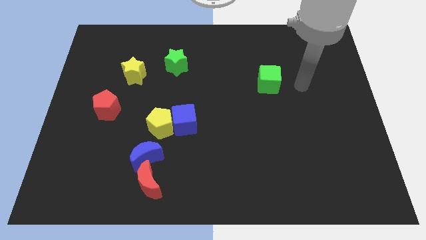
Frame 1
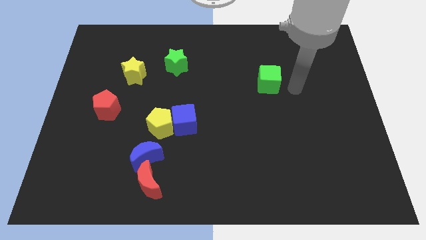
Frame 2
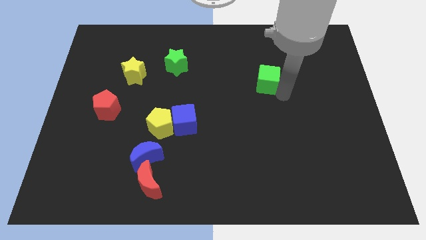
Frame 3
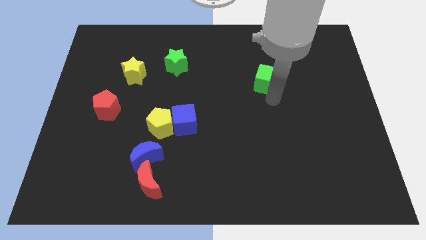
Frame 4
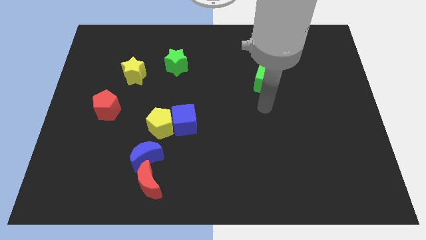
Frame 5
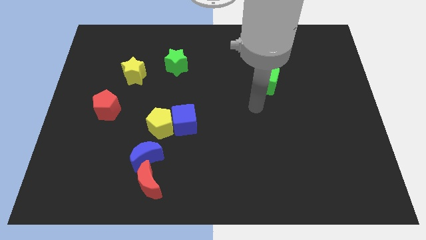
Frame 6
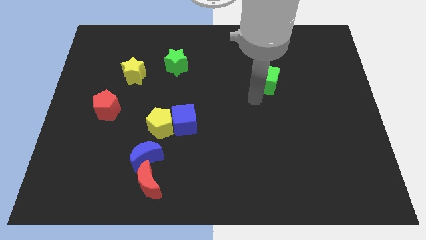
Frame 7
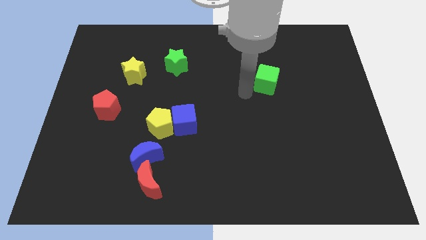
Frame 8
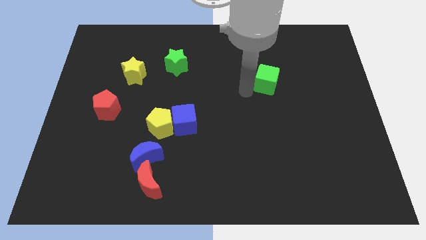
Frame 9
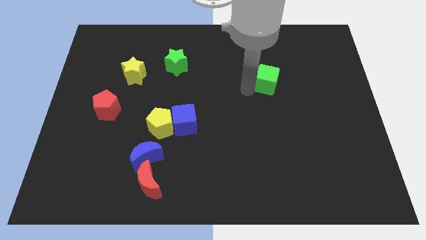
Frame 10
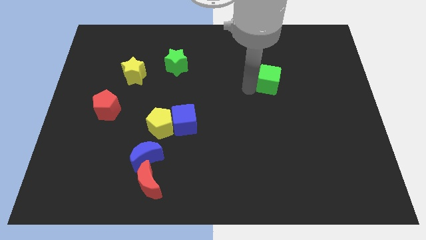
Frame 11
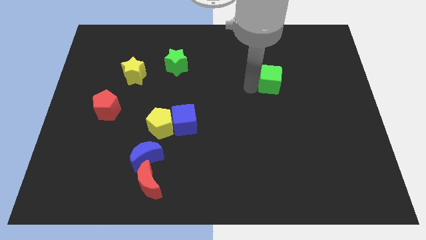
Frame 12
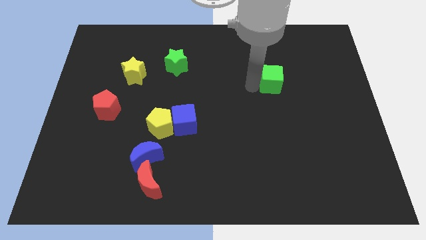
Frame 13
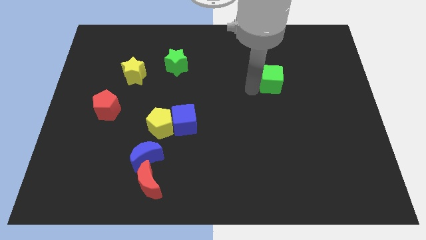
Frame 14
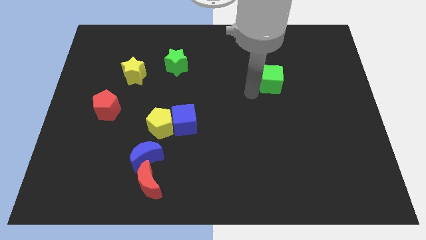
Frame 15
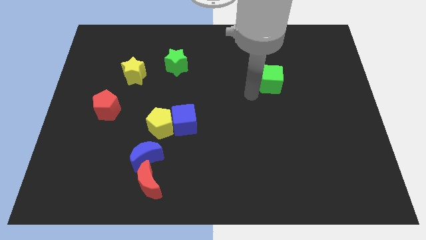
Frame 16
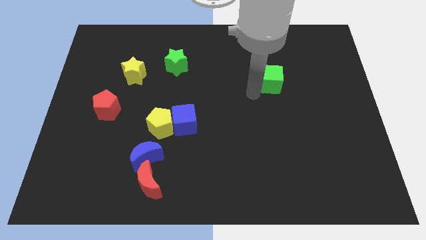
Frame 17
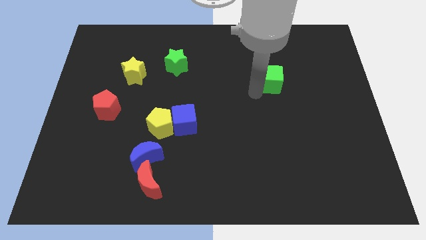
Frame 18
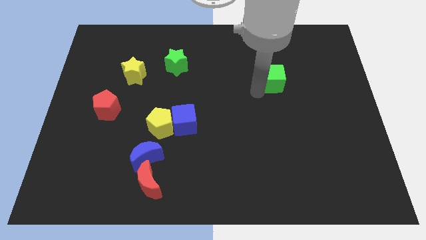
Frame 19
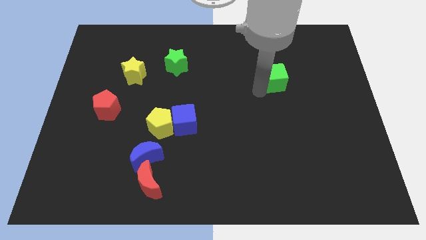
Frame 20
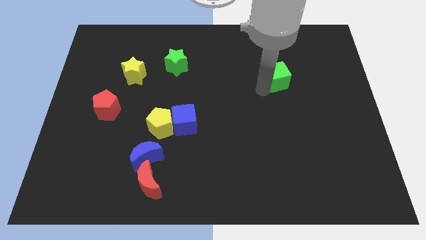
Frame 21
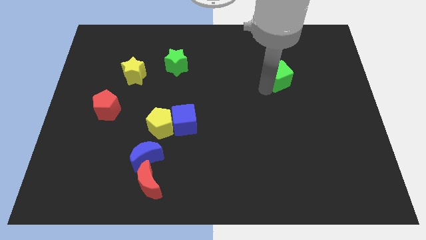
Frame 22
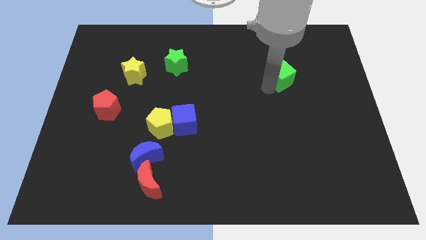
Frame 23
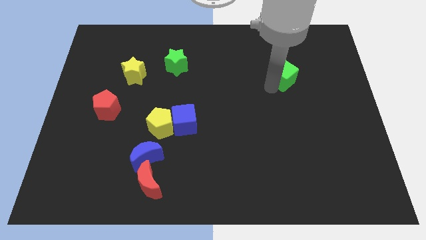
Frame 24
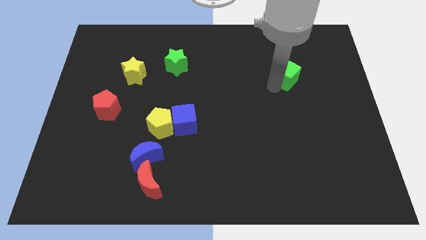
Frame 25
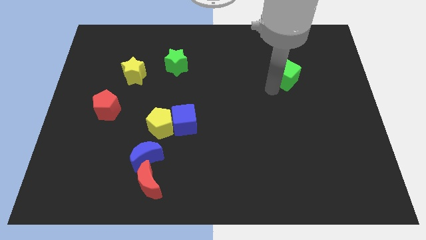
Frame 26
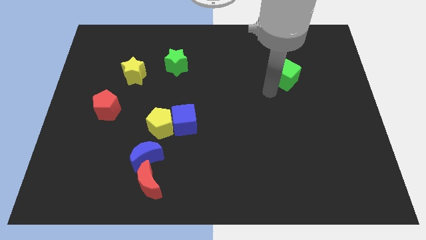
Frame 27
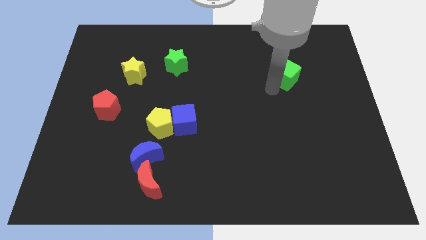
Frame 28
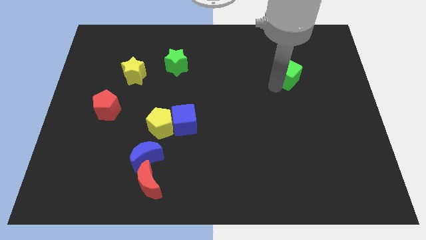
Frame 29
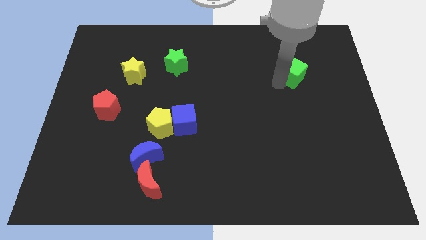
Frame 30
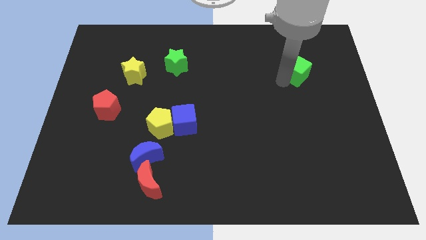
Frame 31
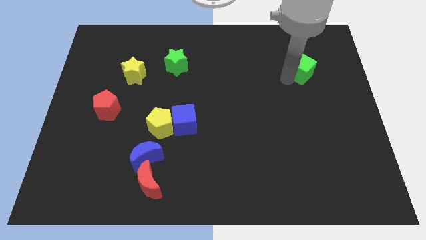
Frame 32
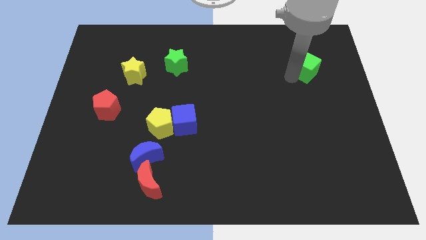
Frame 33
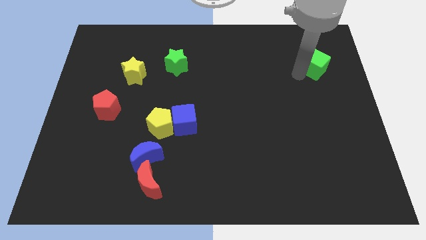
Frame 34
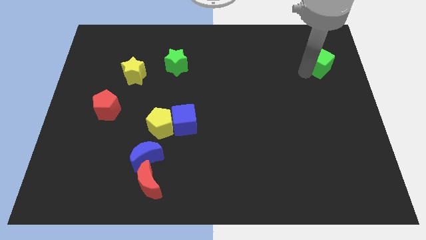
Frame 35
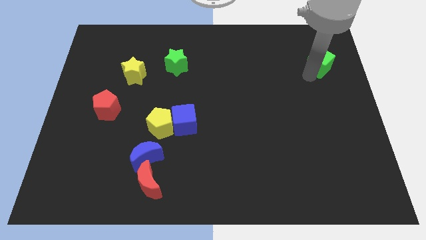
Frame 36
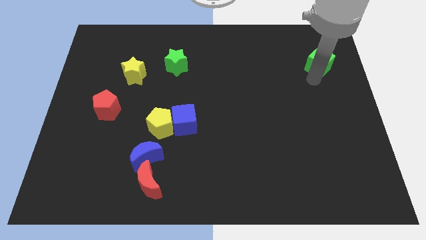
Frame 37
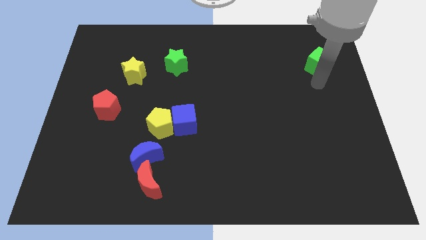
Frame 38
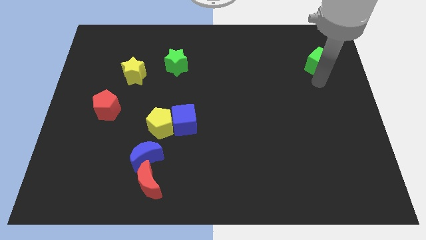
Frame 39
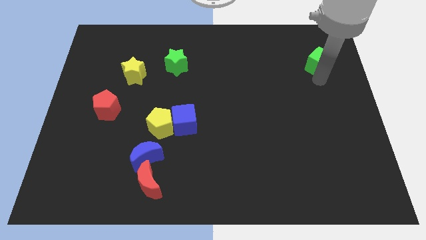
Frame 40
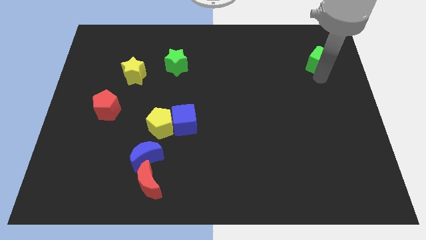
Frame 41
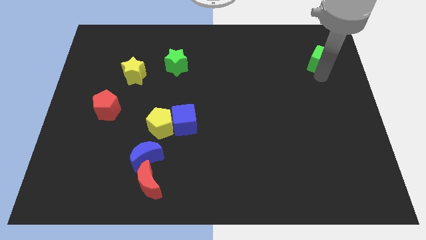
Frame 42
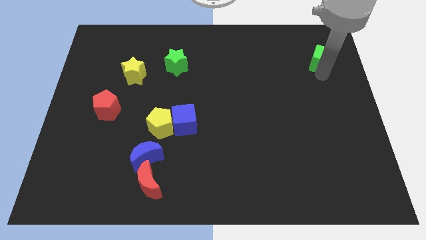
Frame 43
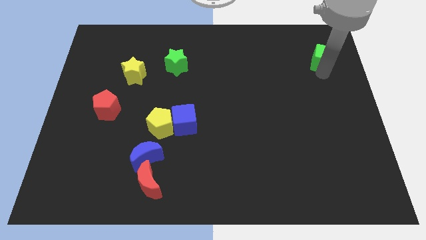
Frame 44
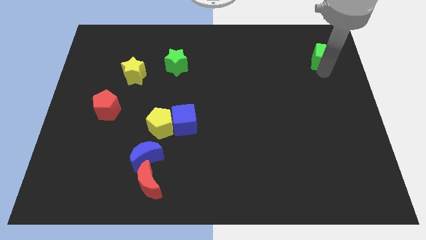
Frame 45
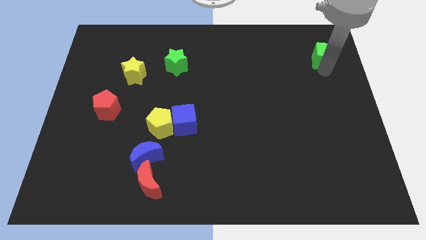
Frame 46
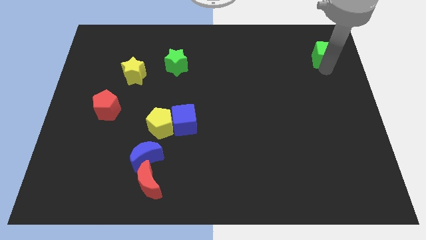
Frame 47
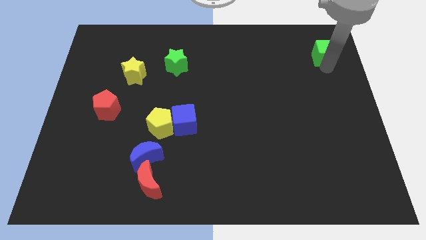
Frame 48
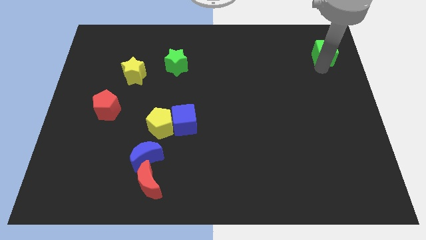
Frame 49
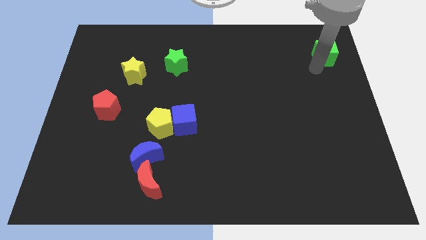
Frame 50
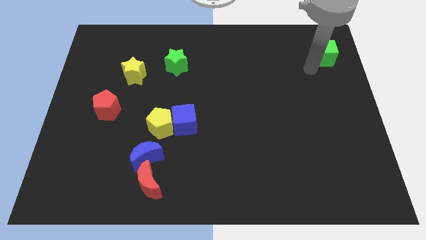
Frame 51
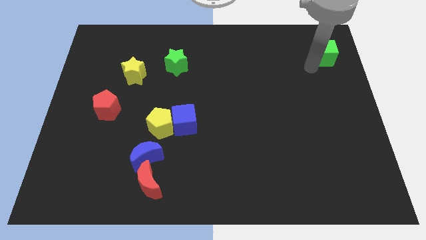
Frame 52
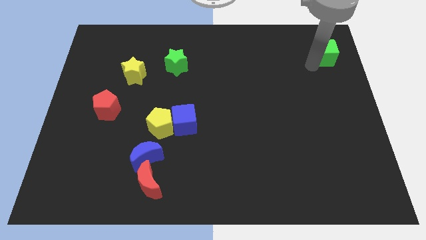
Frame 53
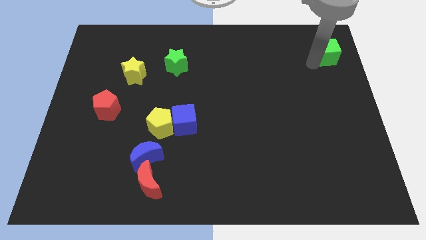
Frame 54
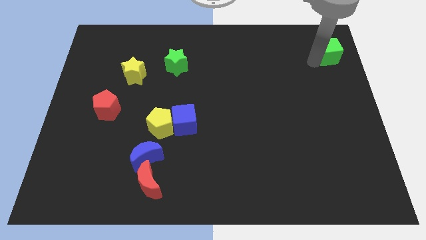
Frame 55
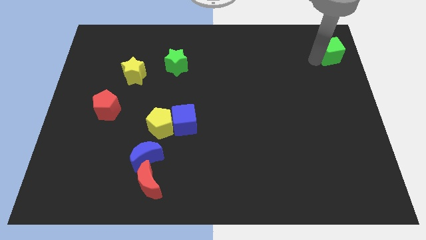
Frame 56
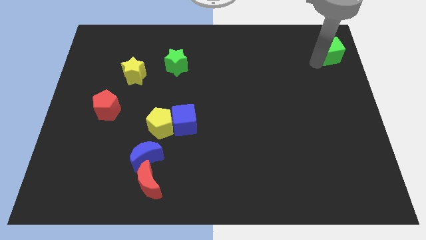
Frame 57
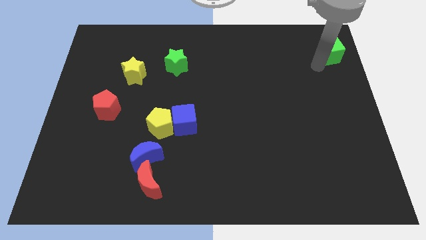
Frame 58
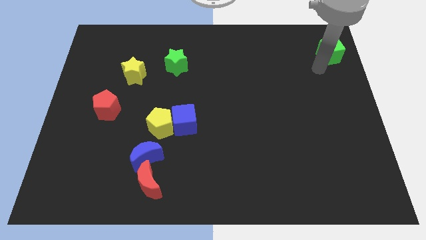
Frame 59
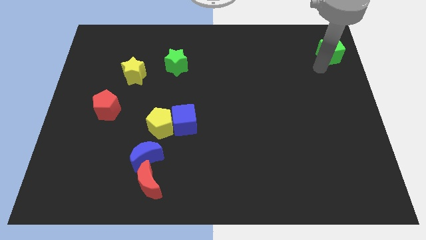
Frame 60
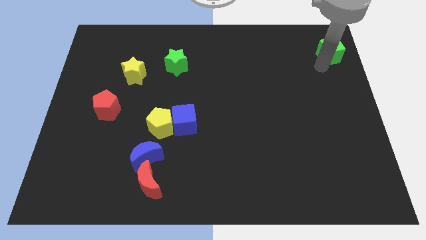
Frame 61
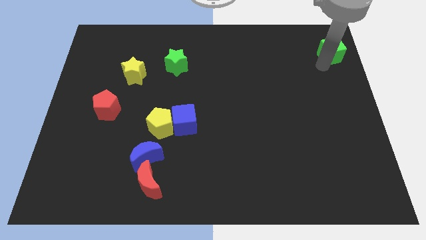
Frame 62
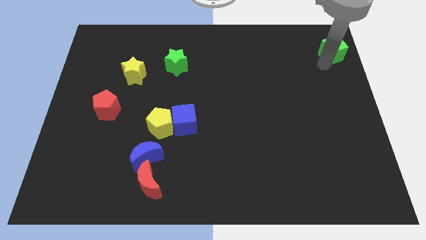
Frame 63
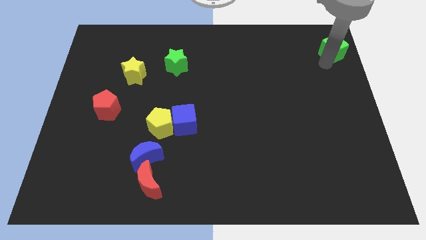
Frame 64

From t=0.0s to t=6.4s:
put the green cube to the top right of the board
